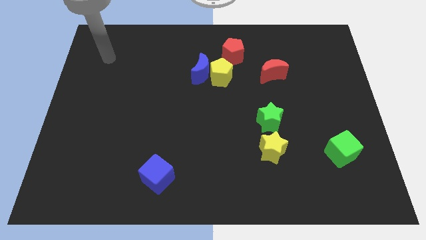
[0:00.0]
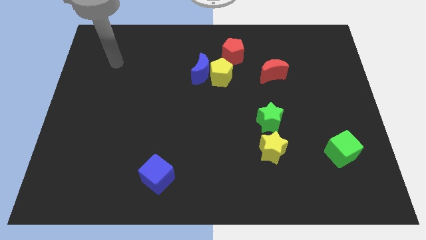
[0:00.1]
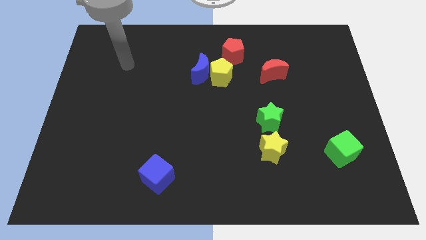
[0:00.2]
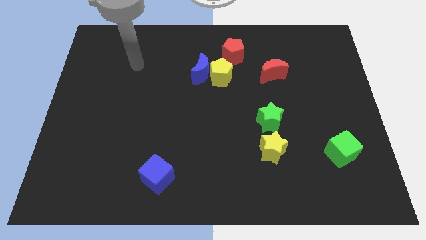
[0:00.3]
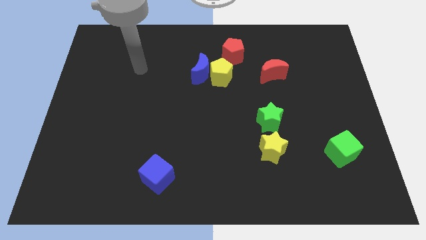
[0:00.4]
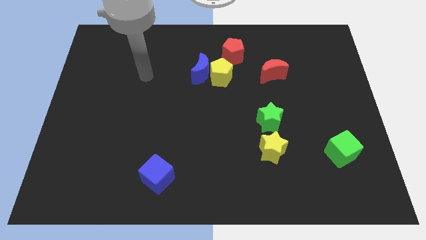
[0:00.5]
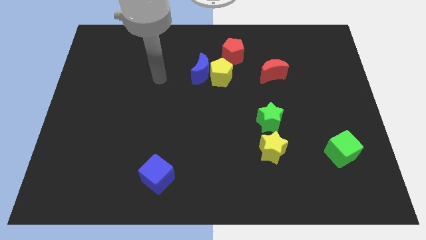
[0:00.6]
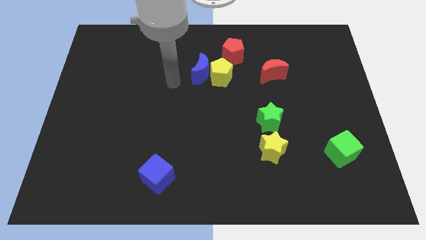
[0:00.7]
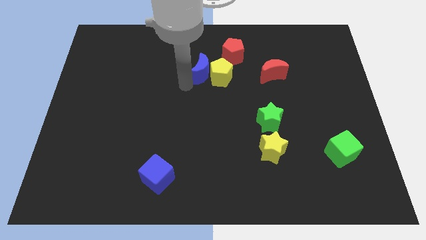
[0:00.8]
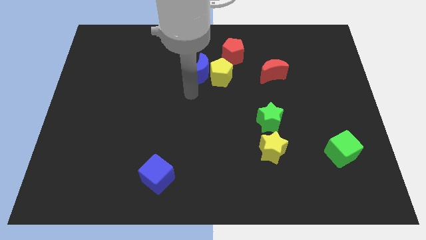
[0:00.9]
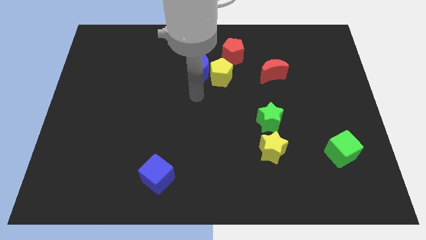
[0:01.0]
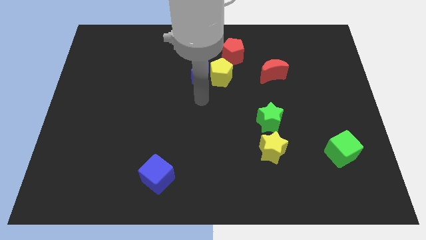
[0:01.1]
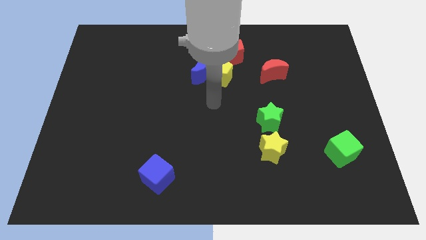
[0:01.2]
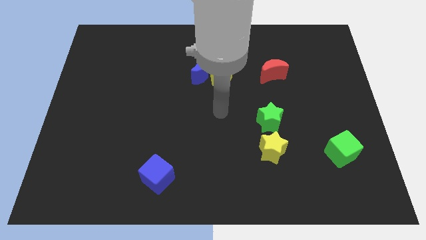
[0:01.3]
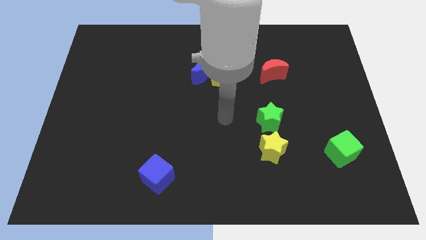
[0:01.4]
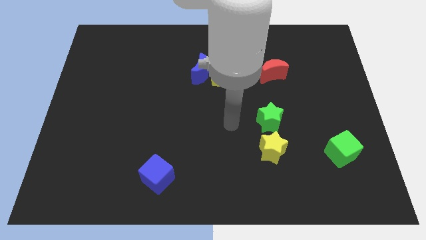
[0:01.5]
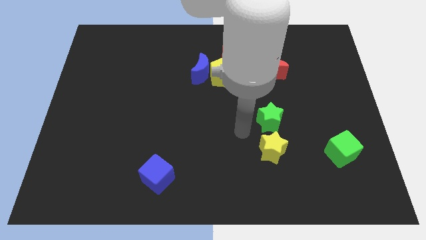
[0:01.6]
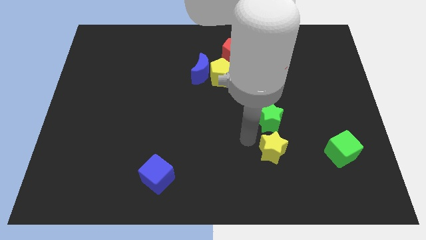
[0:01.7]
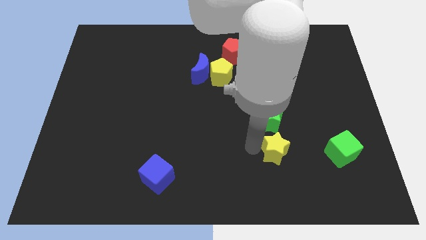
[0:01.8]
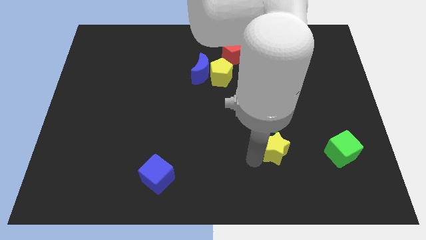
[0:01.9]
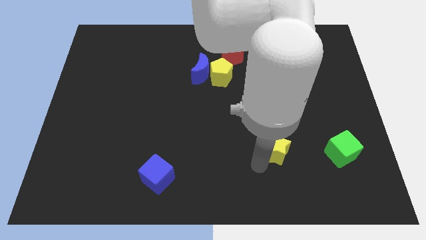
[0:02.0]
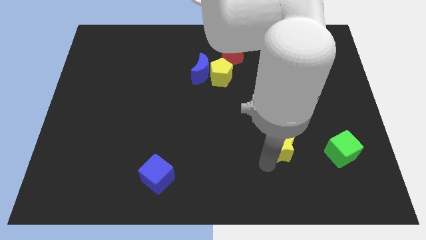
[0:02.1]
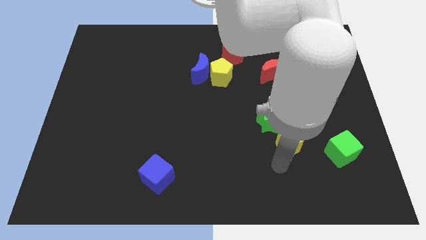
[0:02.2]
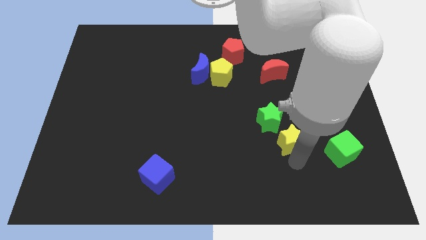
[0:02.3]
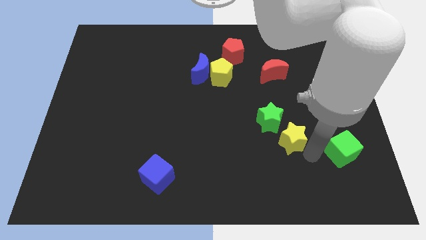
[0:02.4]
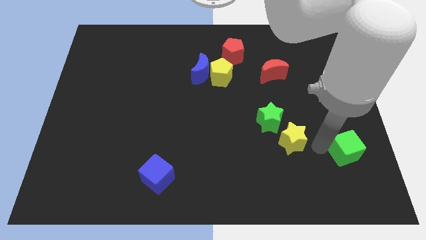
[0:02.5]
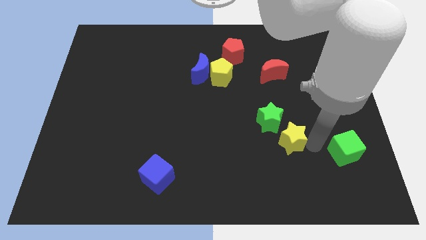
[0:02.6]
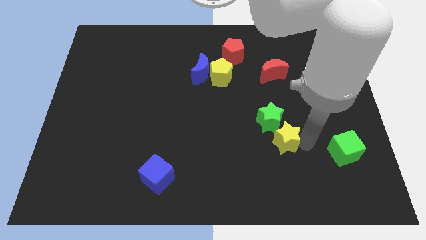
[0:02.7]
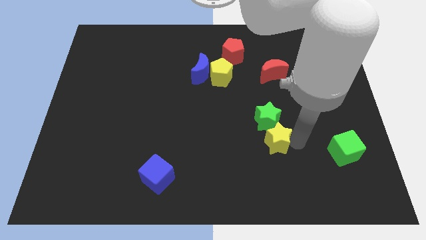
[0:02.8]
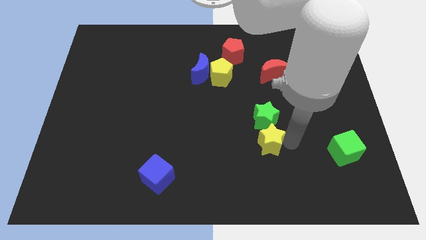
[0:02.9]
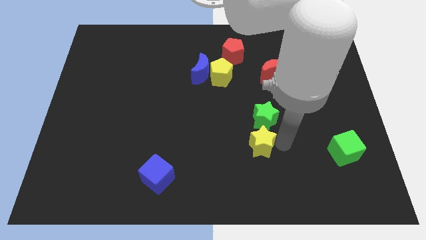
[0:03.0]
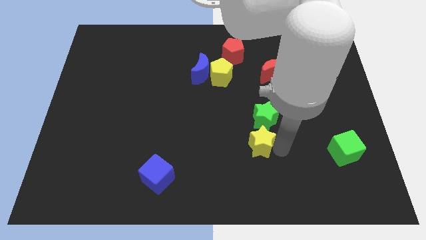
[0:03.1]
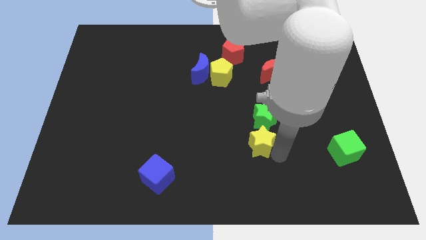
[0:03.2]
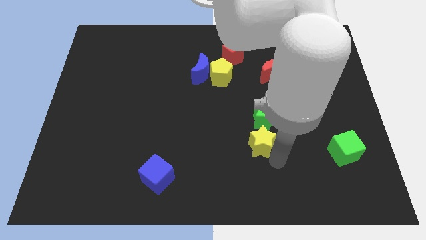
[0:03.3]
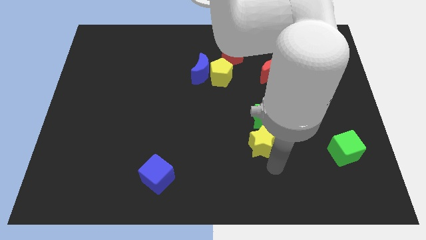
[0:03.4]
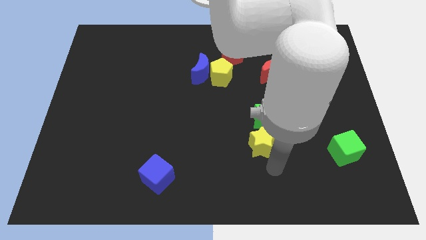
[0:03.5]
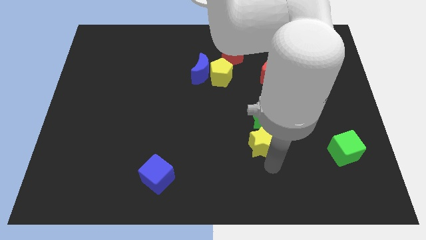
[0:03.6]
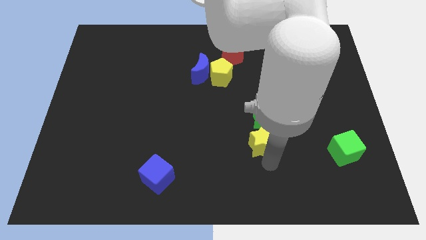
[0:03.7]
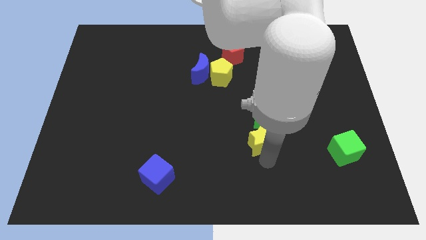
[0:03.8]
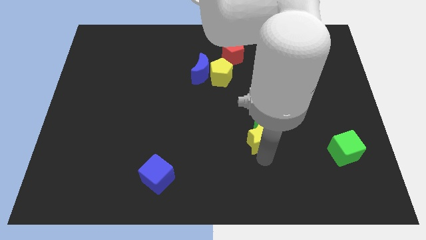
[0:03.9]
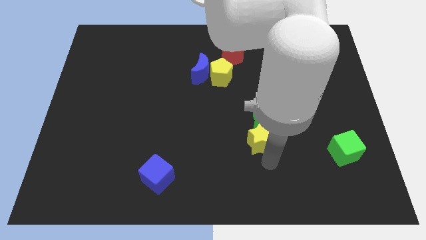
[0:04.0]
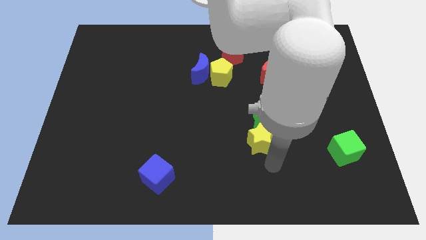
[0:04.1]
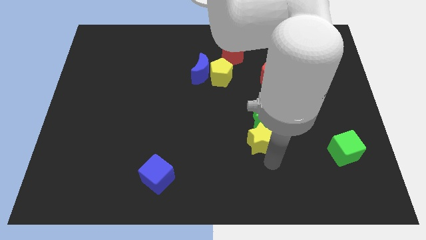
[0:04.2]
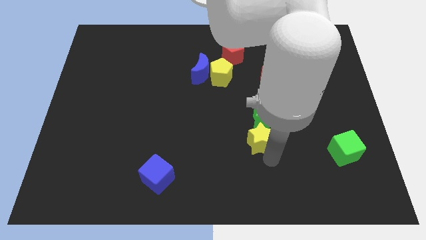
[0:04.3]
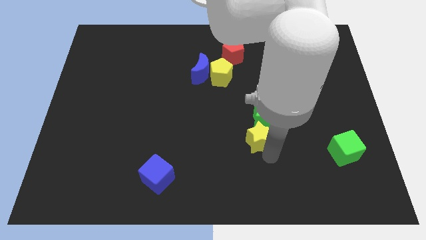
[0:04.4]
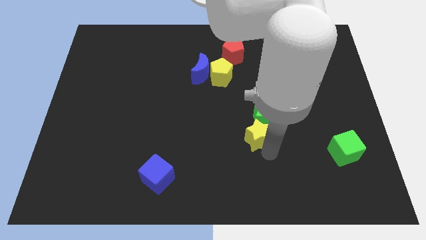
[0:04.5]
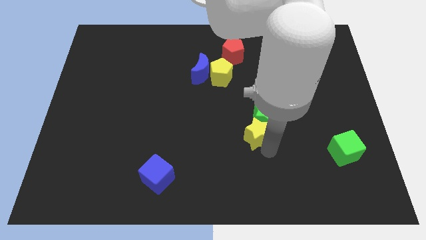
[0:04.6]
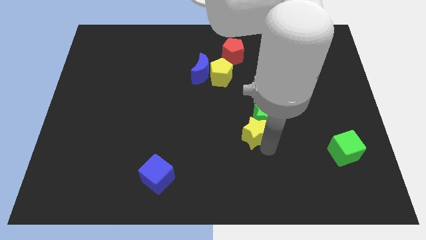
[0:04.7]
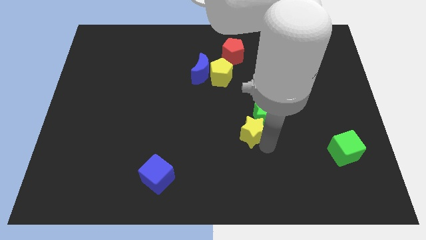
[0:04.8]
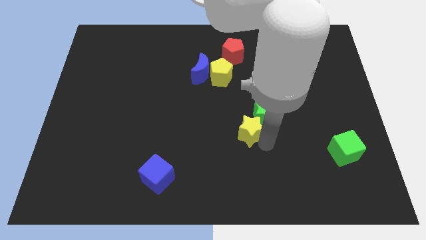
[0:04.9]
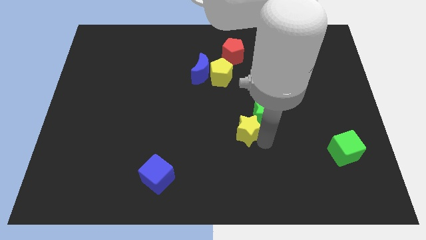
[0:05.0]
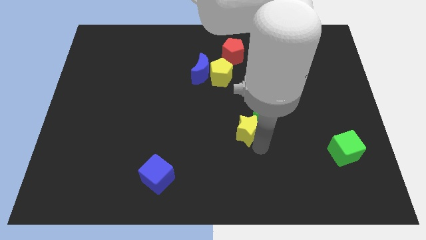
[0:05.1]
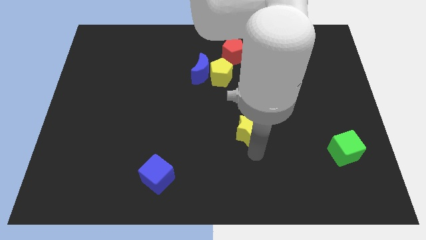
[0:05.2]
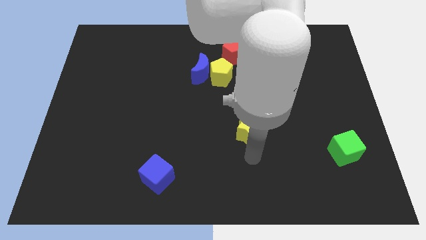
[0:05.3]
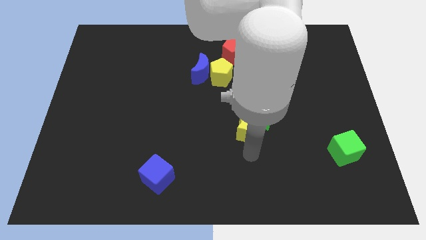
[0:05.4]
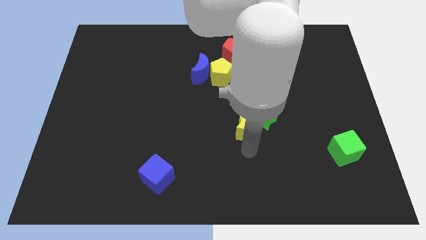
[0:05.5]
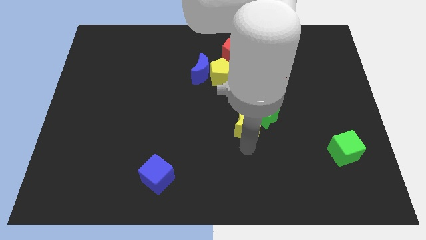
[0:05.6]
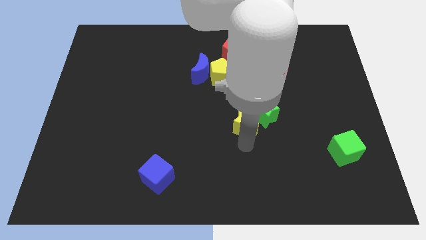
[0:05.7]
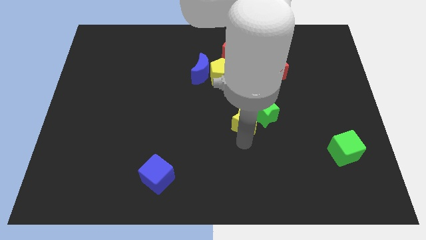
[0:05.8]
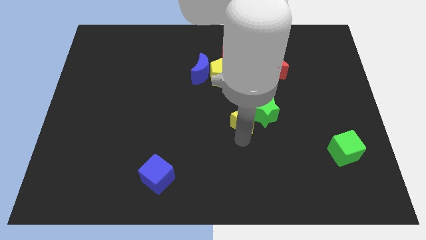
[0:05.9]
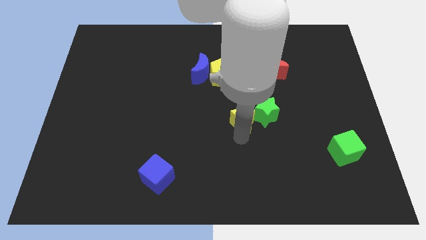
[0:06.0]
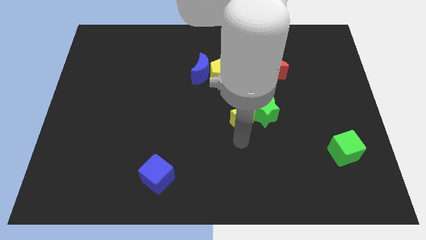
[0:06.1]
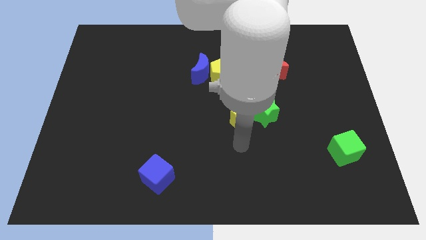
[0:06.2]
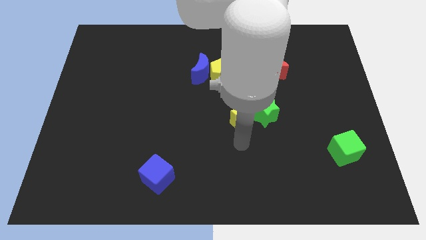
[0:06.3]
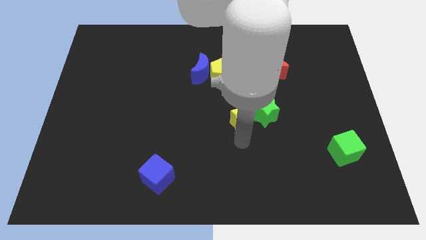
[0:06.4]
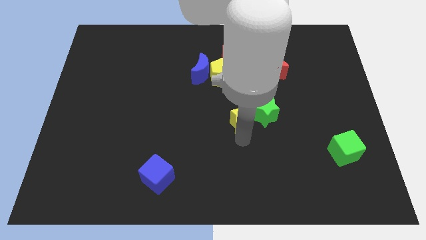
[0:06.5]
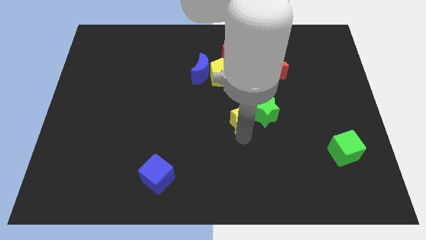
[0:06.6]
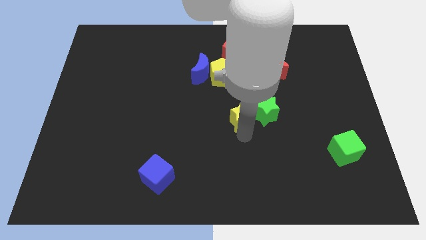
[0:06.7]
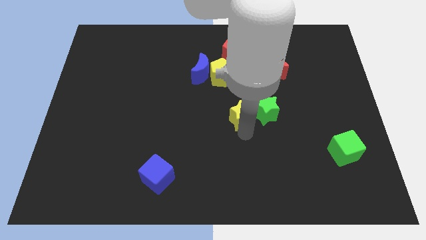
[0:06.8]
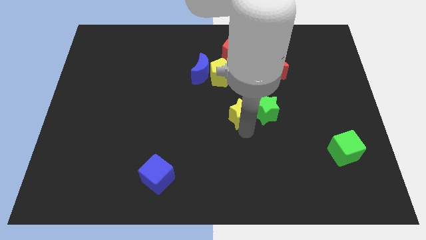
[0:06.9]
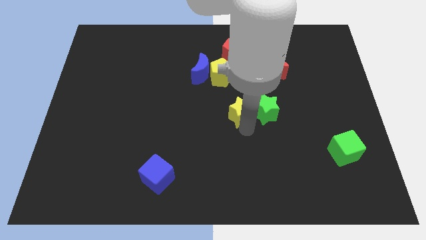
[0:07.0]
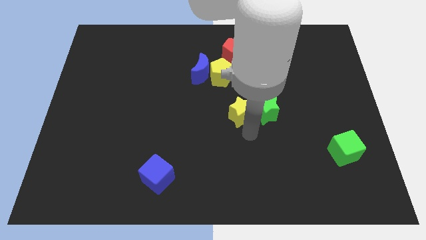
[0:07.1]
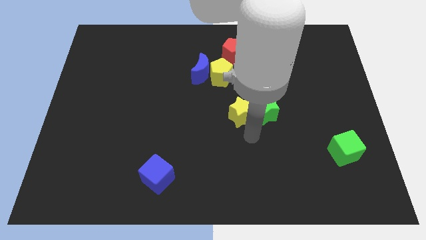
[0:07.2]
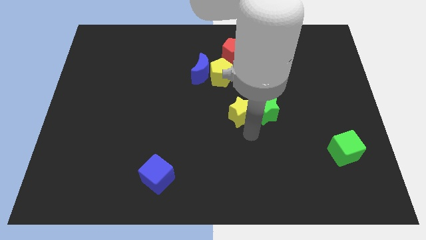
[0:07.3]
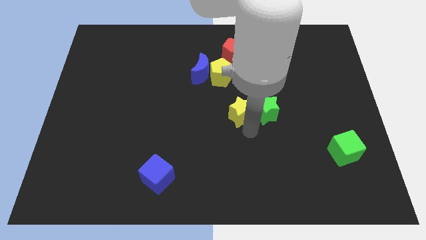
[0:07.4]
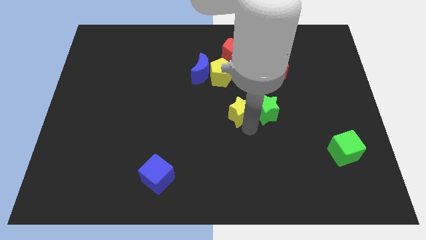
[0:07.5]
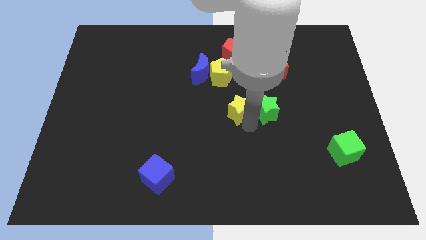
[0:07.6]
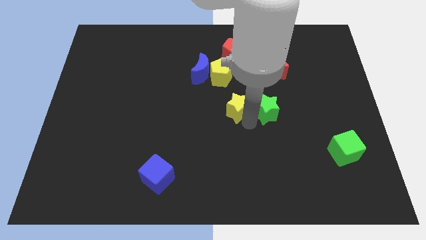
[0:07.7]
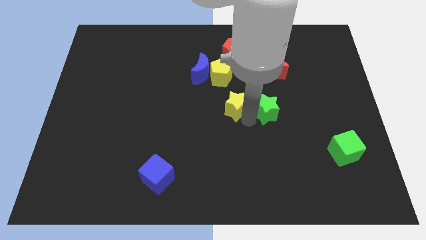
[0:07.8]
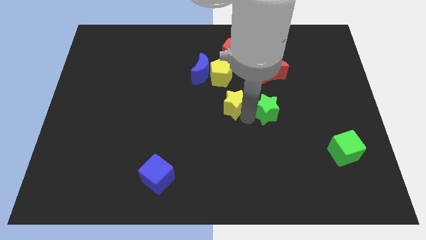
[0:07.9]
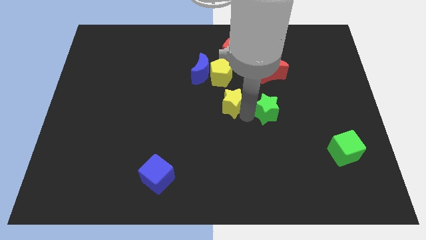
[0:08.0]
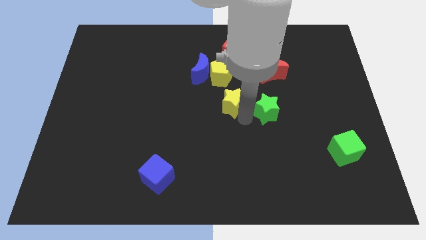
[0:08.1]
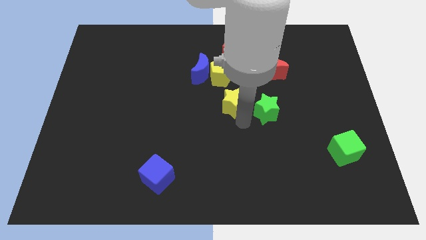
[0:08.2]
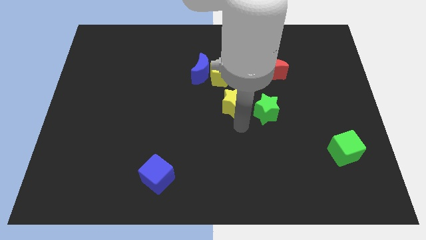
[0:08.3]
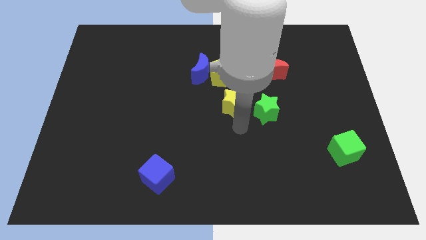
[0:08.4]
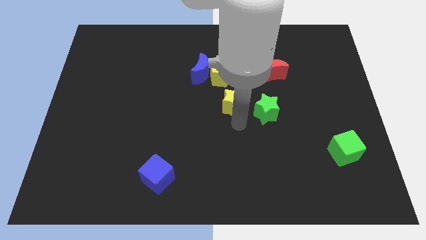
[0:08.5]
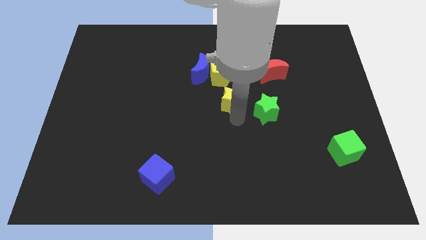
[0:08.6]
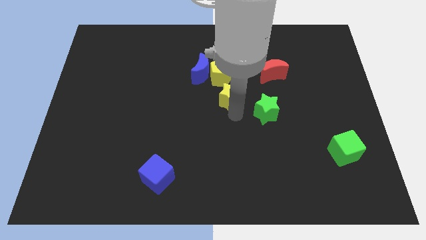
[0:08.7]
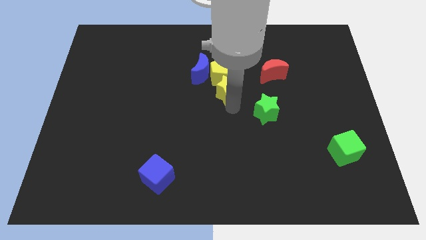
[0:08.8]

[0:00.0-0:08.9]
push the yellow star close to the yellow pentagon
